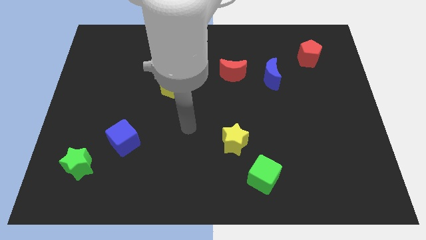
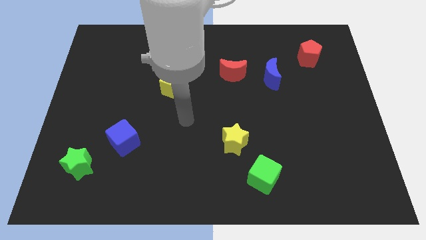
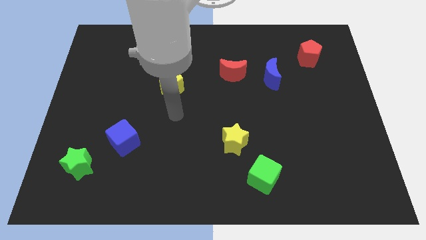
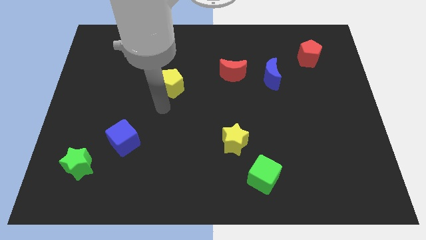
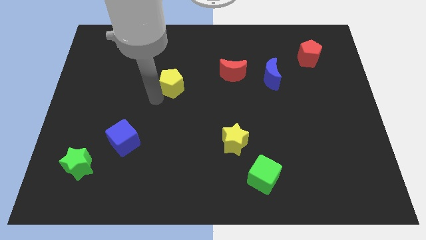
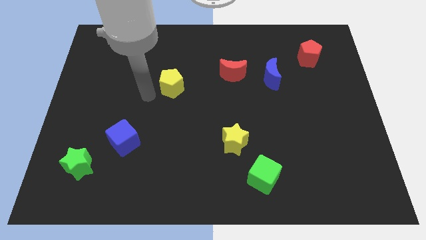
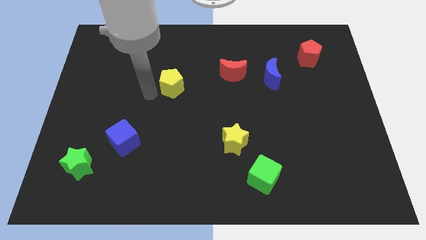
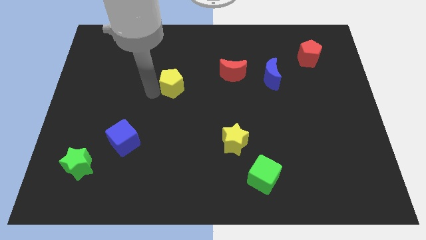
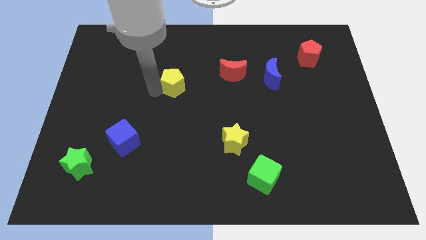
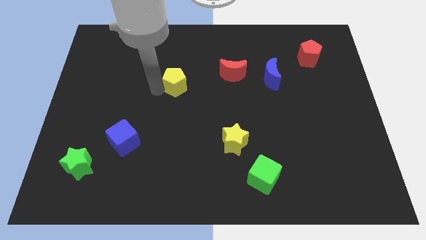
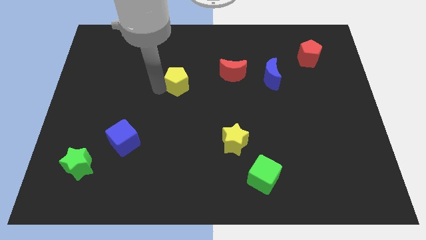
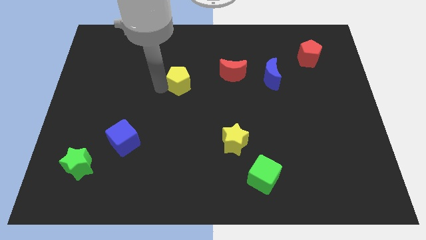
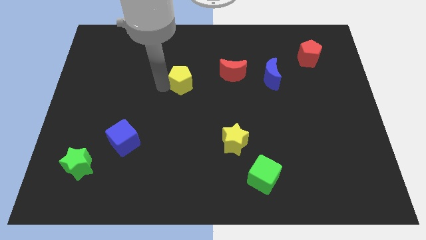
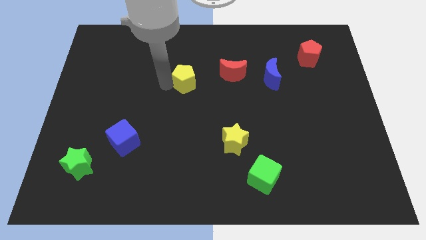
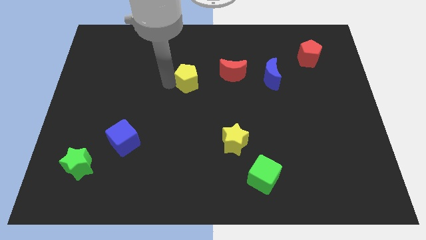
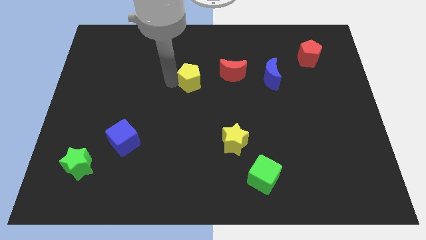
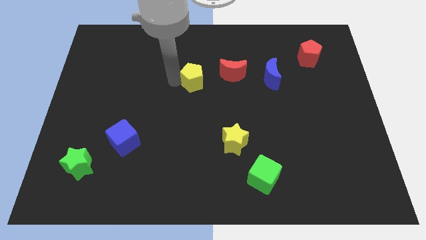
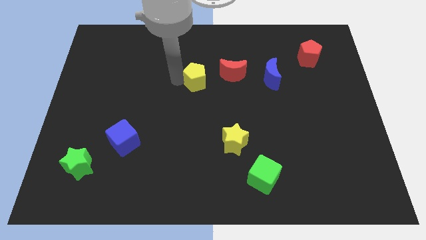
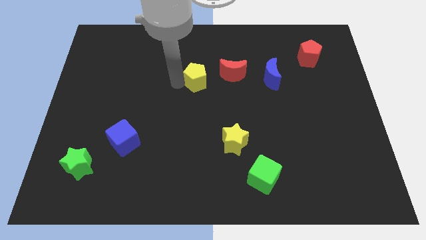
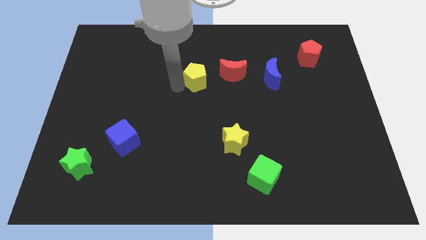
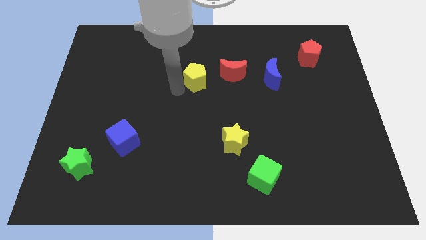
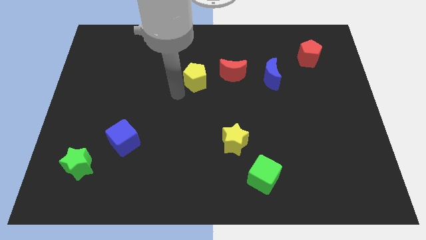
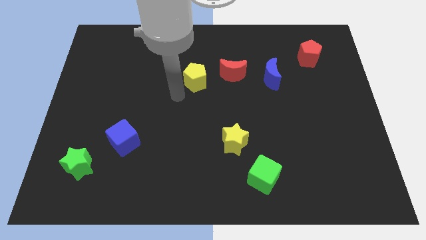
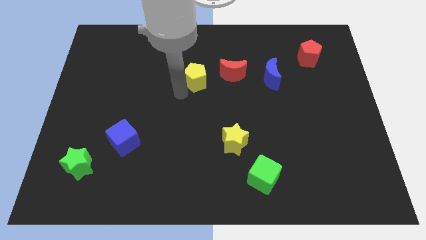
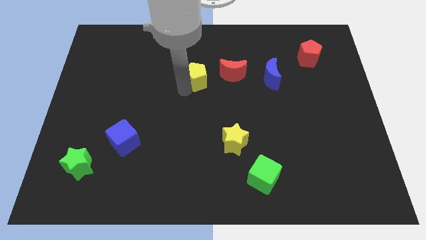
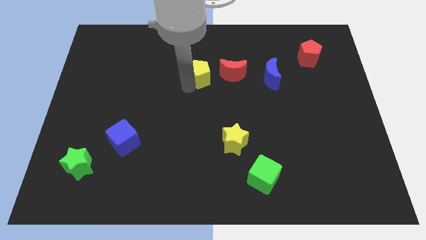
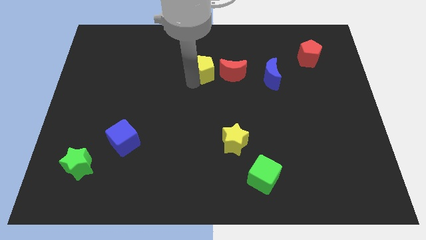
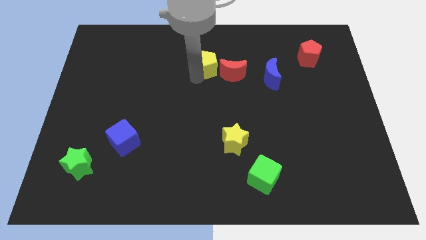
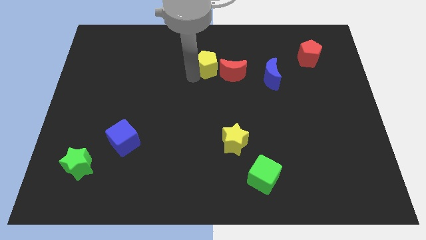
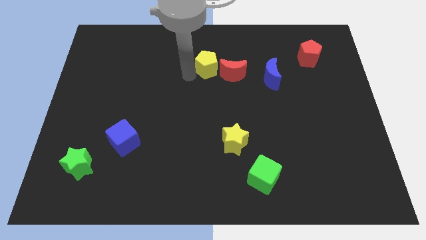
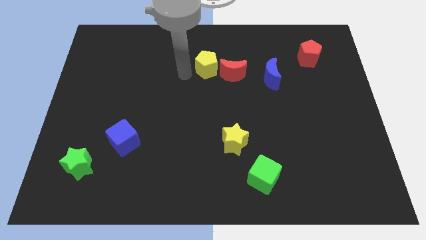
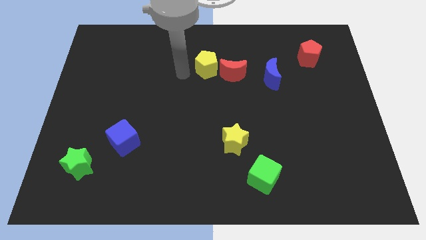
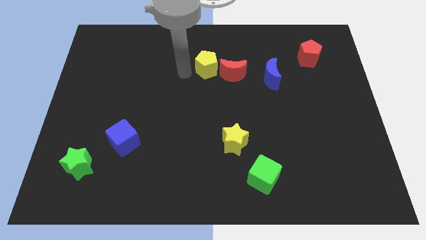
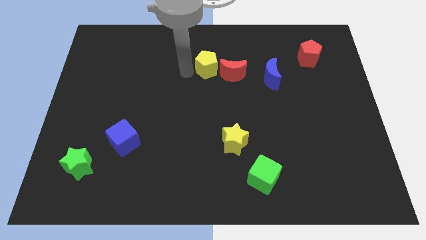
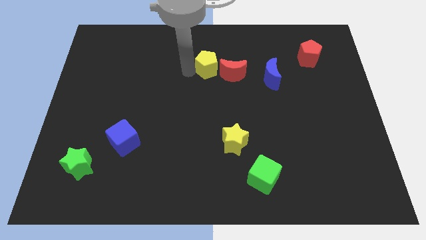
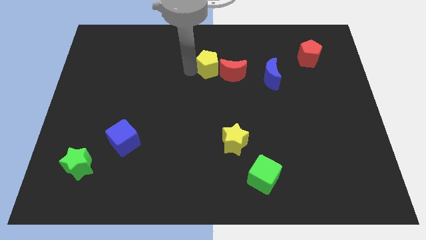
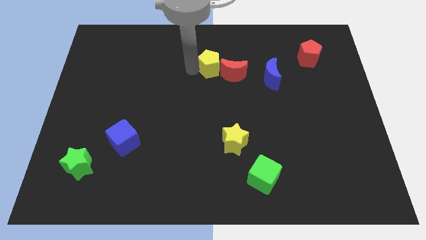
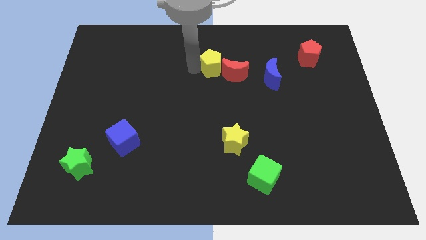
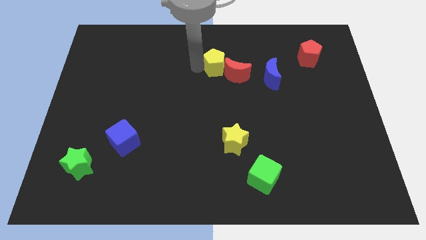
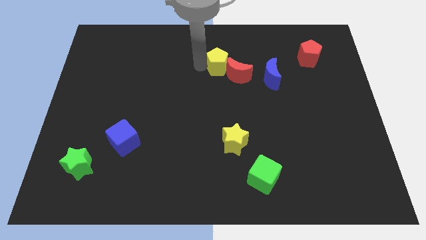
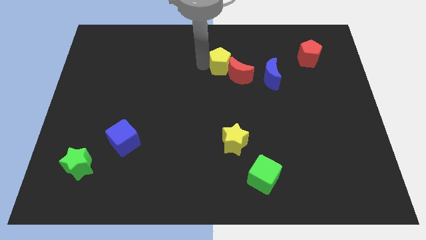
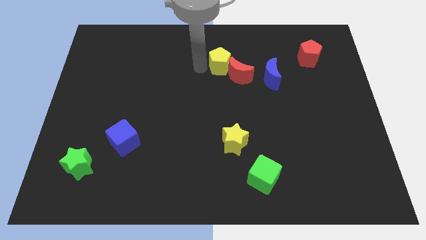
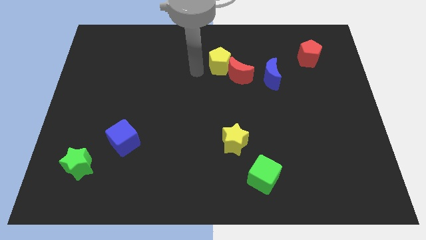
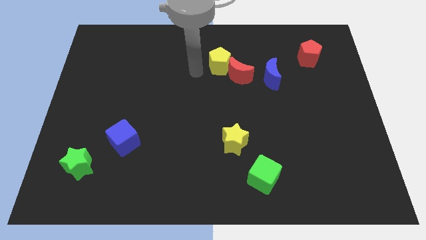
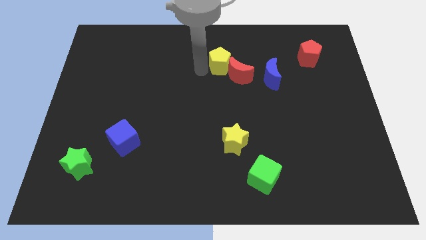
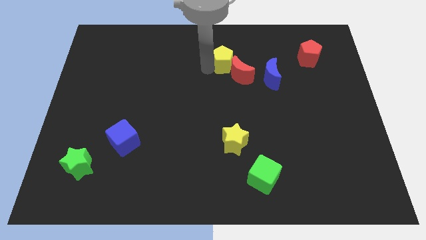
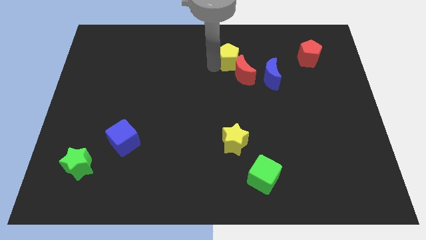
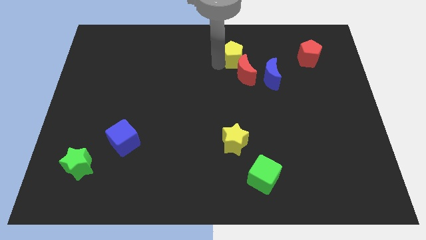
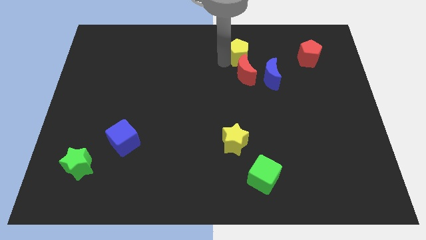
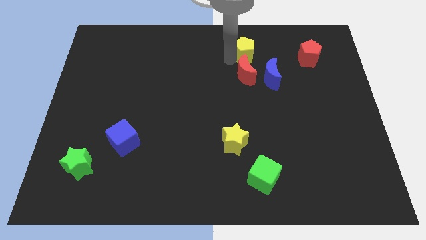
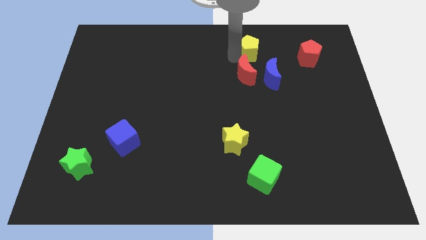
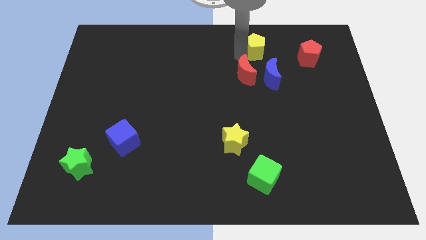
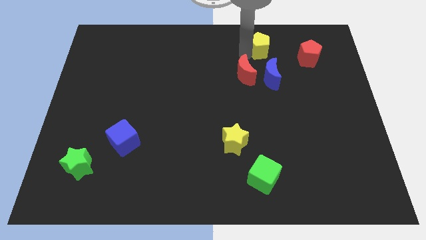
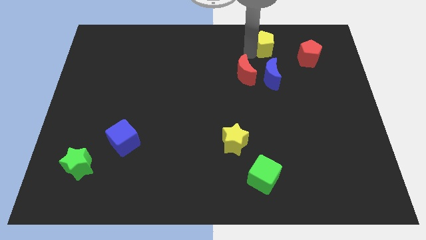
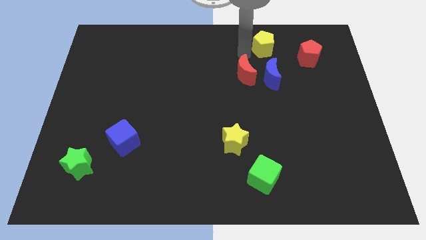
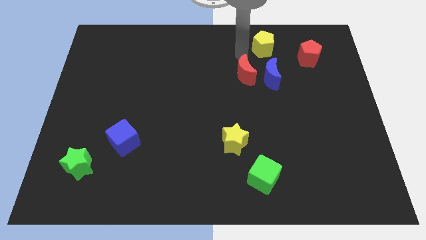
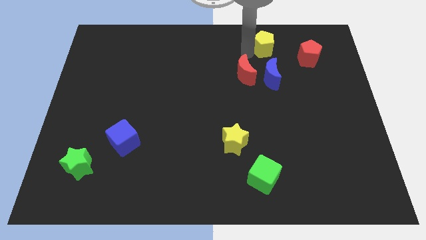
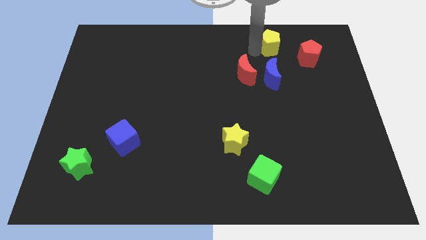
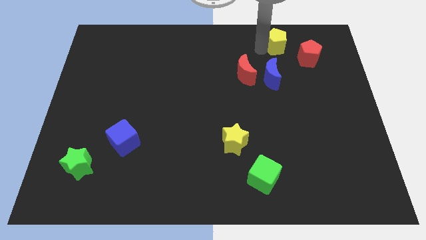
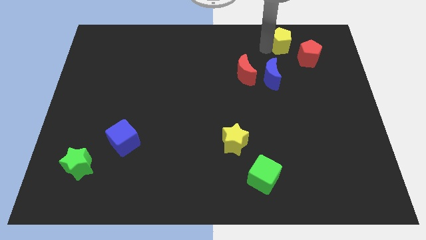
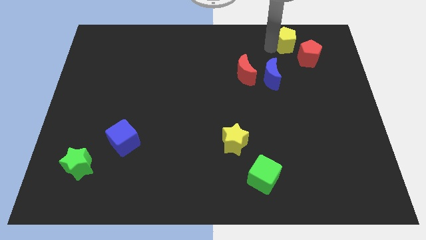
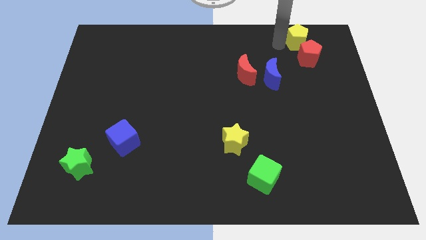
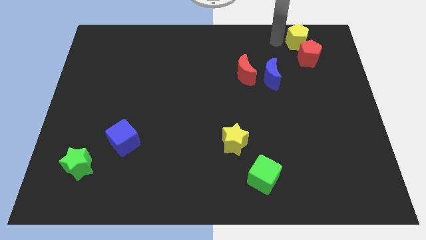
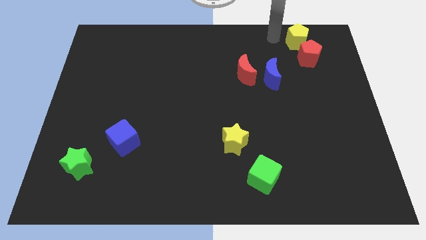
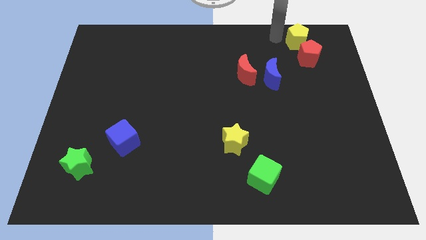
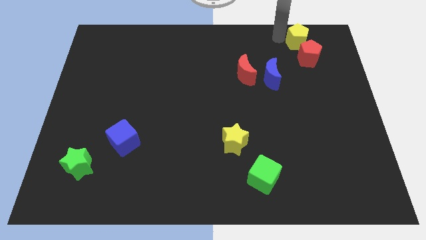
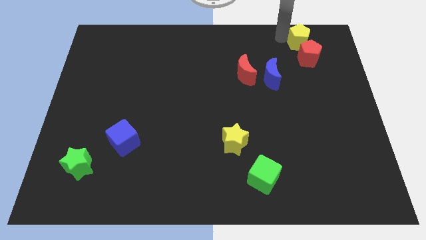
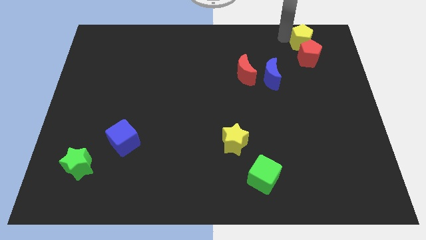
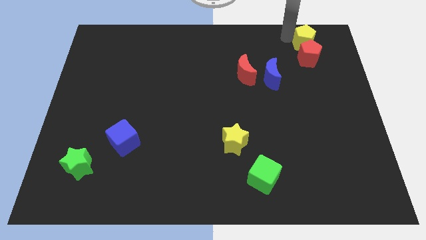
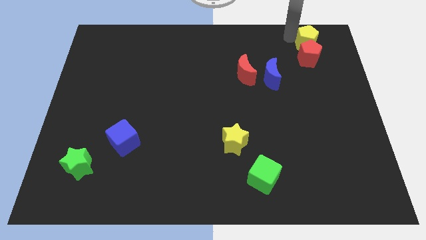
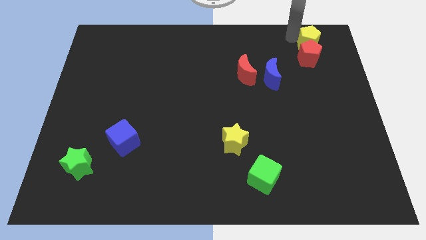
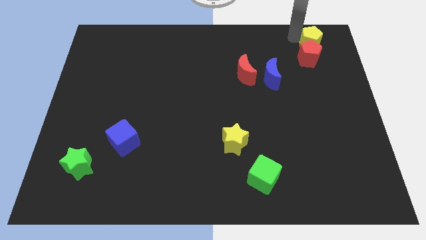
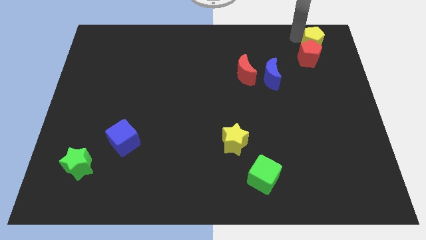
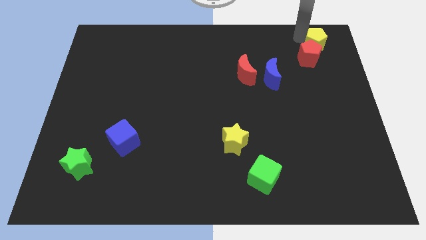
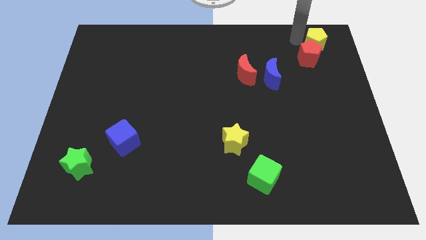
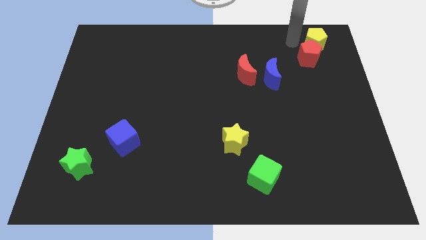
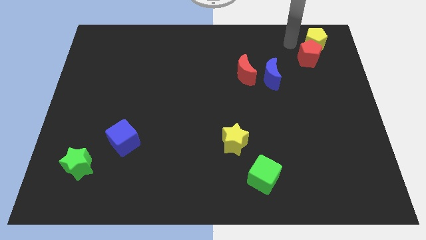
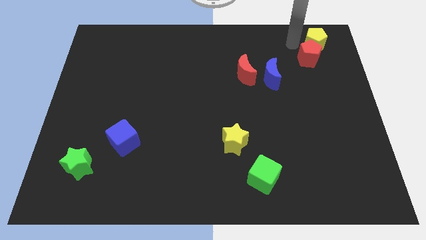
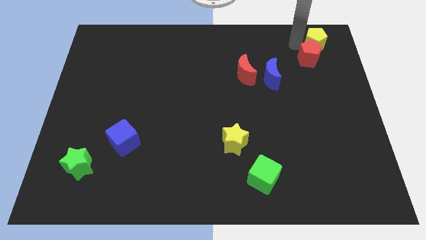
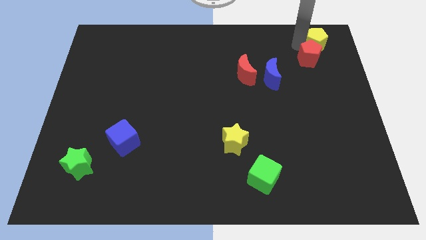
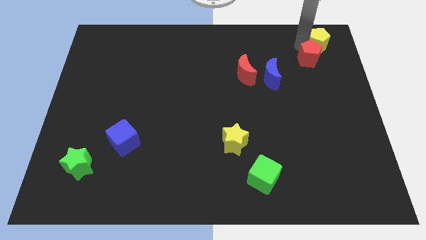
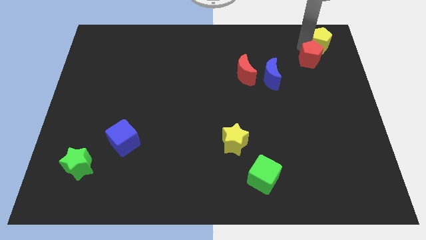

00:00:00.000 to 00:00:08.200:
slide the yellow pentagon to the top right of the board
